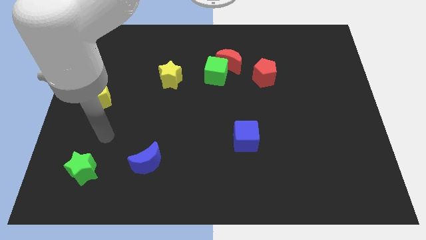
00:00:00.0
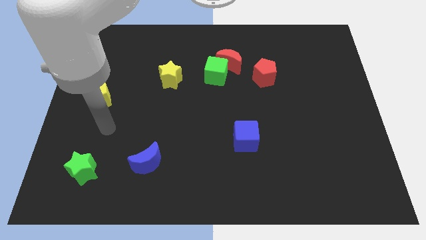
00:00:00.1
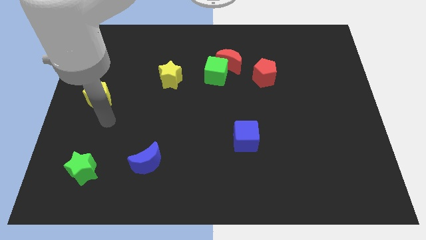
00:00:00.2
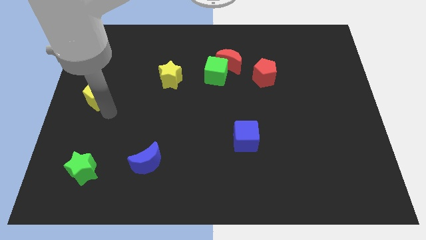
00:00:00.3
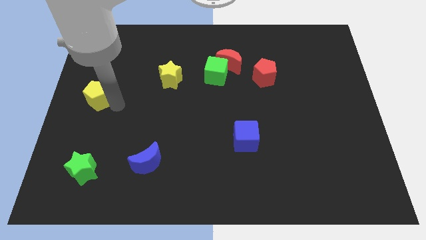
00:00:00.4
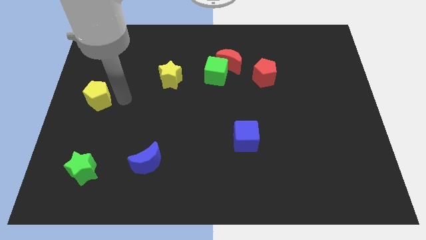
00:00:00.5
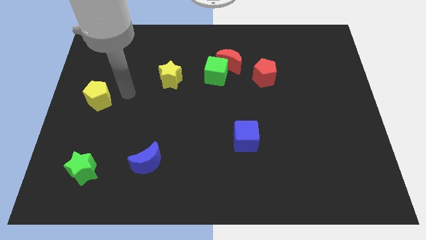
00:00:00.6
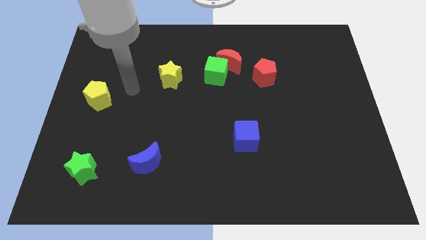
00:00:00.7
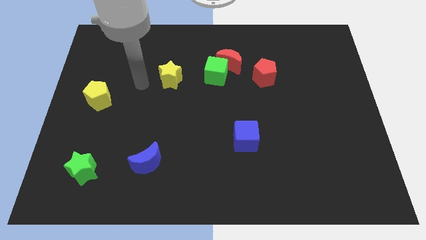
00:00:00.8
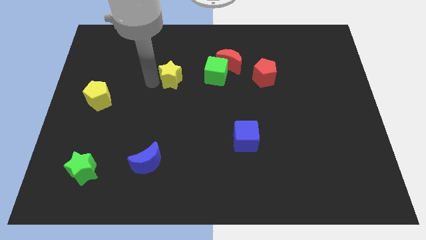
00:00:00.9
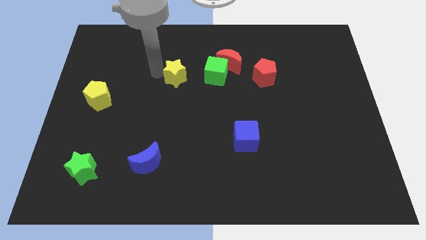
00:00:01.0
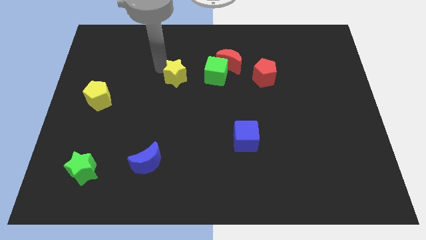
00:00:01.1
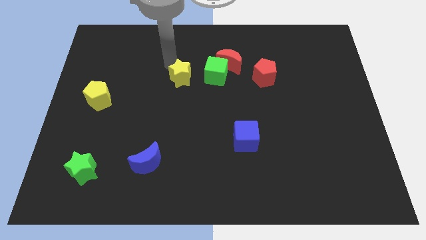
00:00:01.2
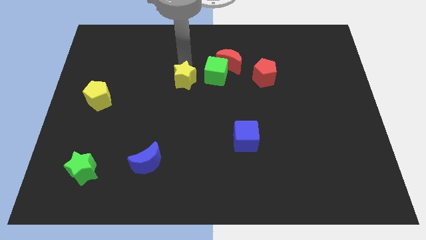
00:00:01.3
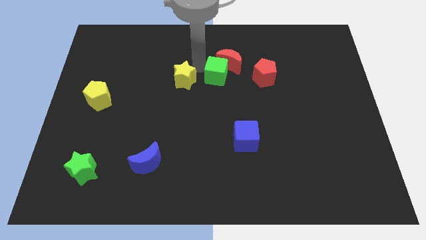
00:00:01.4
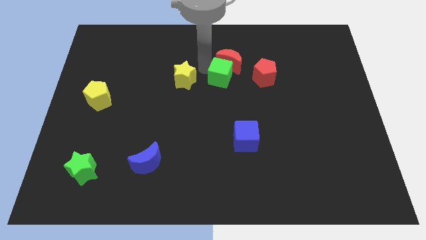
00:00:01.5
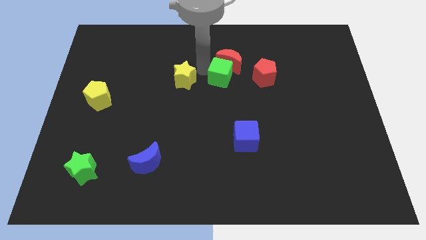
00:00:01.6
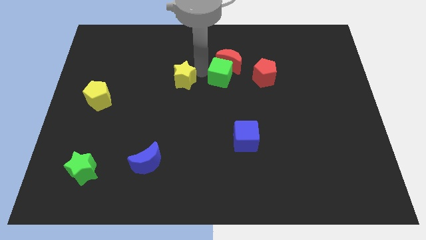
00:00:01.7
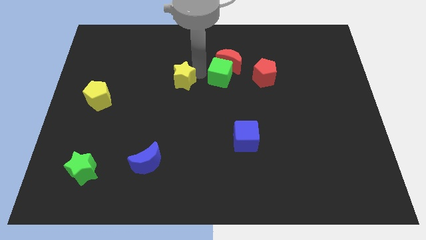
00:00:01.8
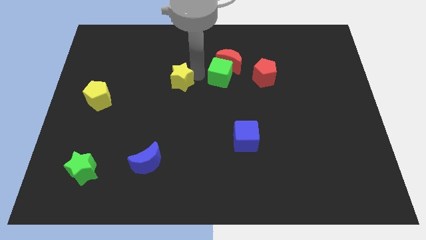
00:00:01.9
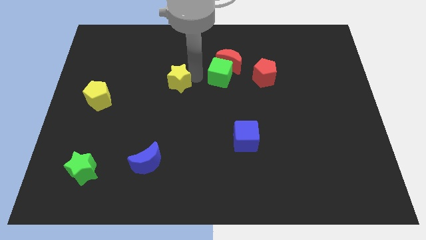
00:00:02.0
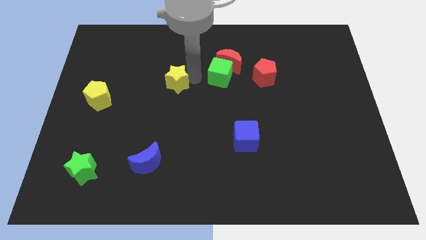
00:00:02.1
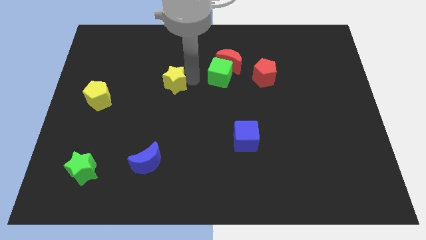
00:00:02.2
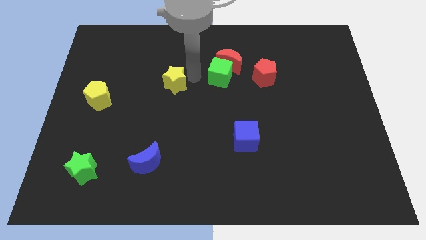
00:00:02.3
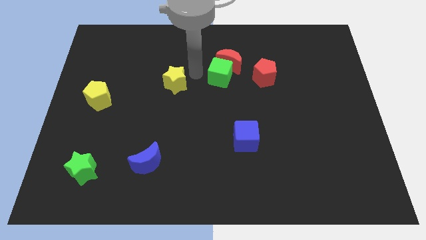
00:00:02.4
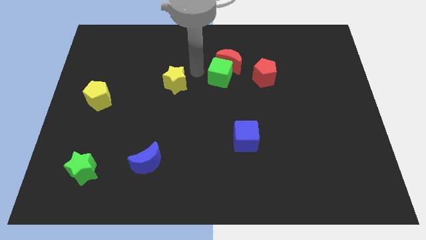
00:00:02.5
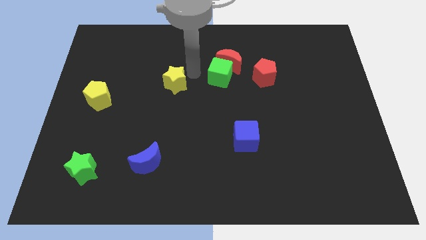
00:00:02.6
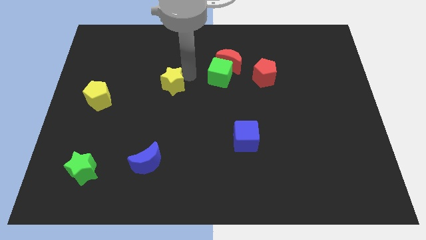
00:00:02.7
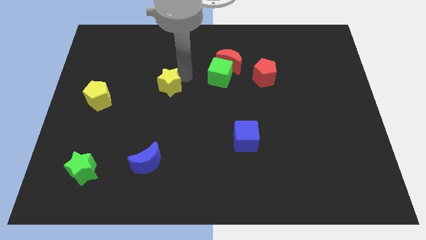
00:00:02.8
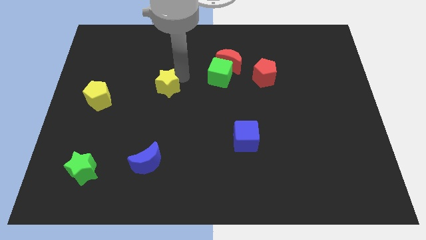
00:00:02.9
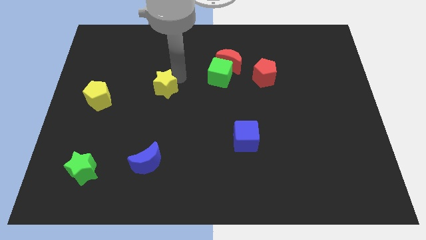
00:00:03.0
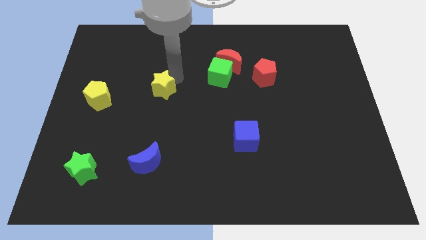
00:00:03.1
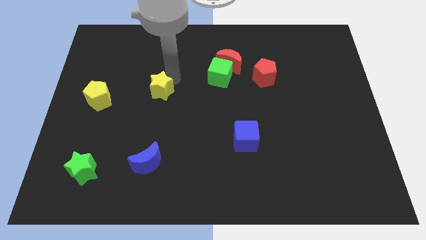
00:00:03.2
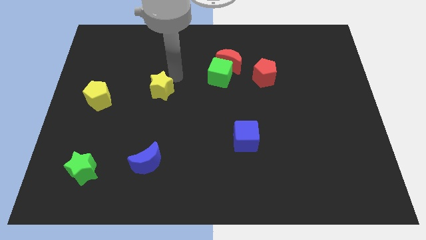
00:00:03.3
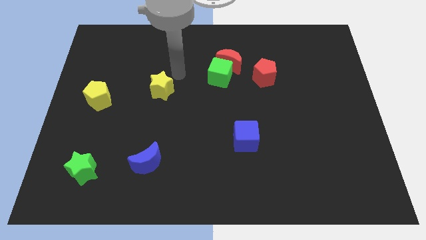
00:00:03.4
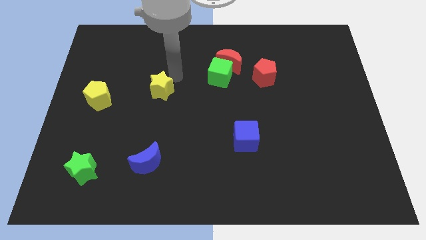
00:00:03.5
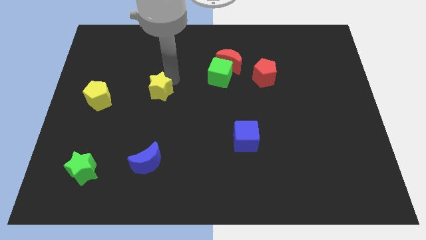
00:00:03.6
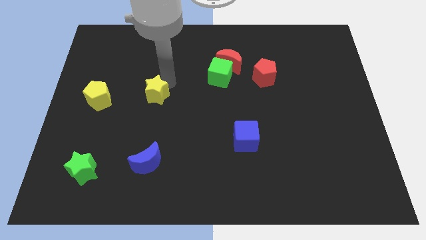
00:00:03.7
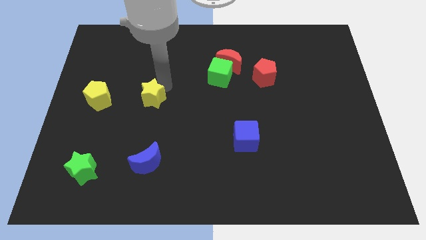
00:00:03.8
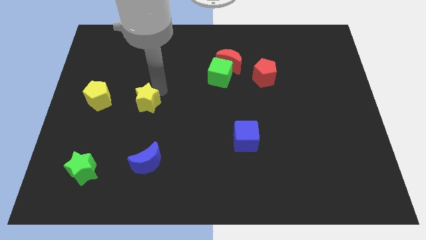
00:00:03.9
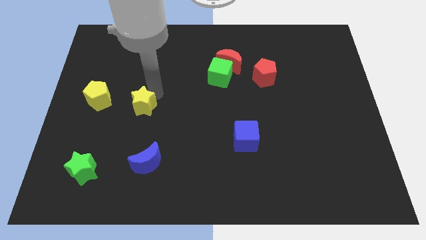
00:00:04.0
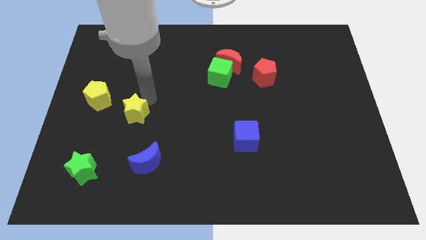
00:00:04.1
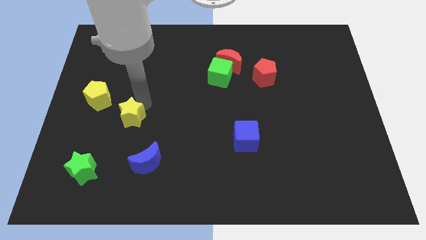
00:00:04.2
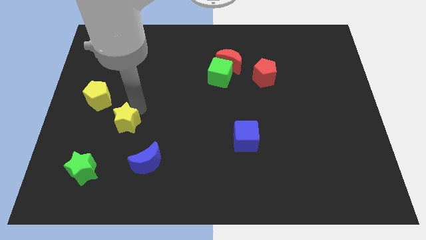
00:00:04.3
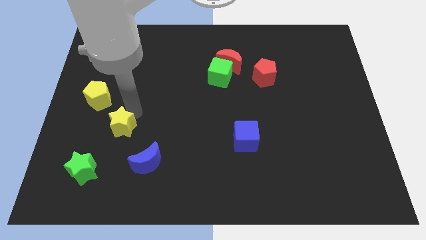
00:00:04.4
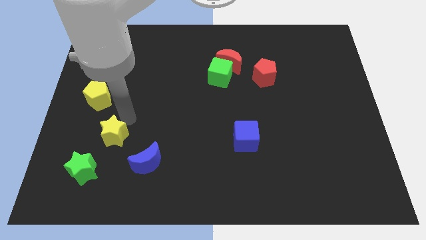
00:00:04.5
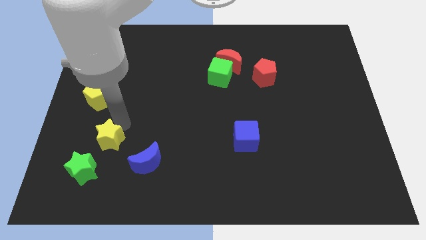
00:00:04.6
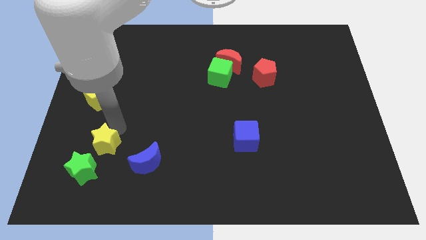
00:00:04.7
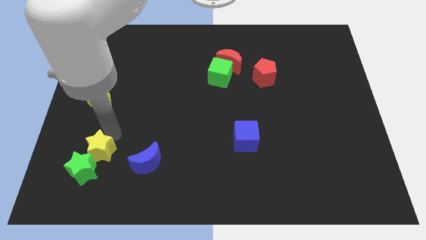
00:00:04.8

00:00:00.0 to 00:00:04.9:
slide the yellow star to the green star

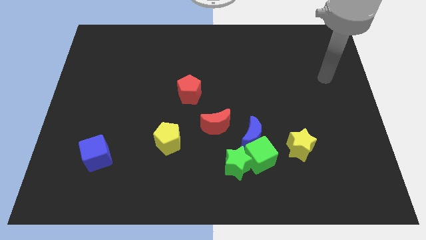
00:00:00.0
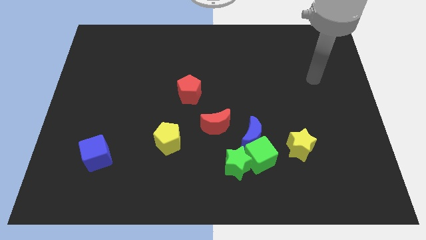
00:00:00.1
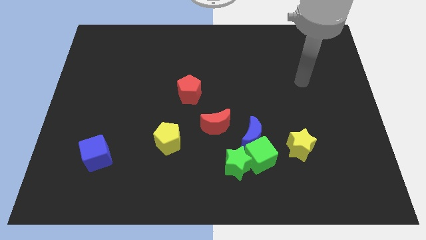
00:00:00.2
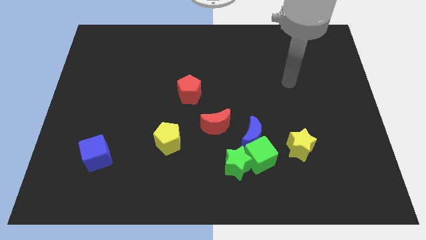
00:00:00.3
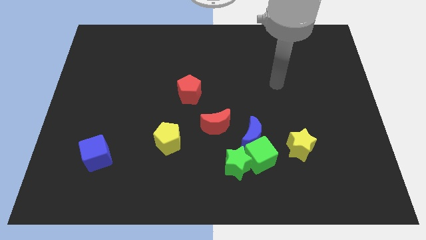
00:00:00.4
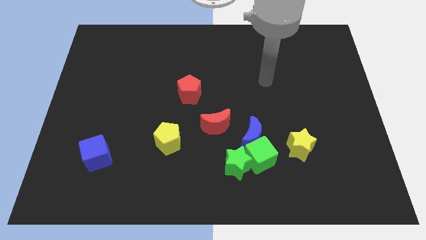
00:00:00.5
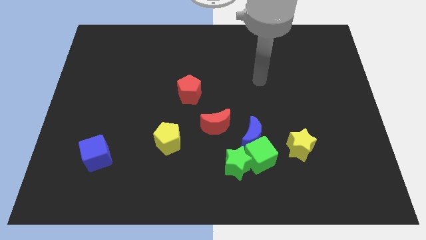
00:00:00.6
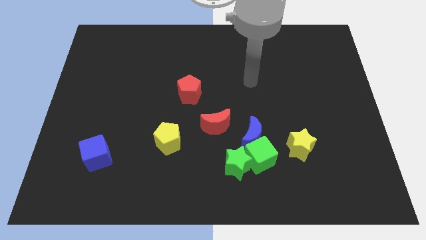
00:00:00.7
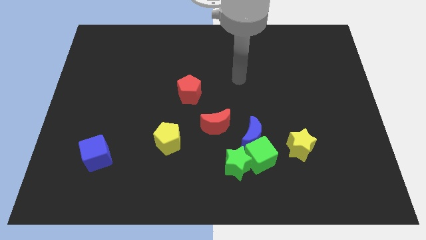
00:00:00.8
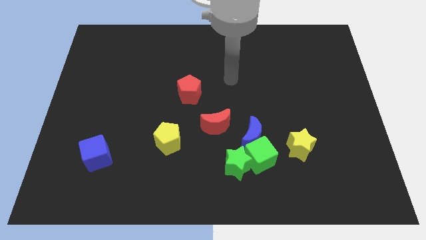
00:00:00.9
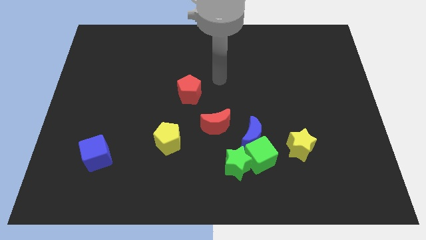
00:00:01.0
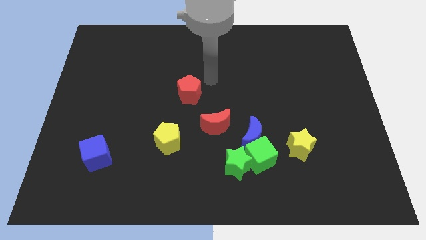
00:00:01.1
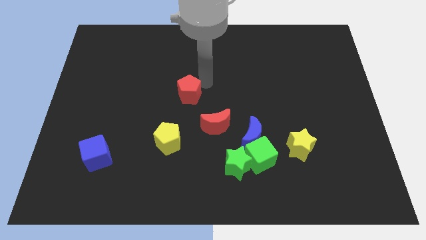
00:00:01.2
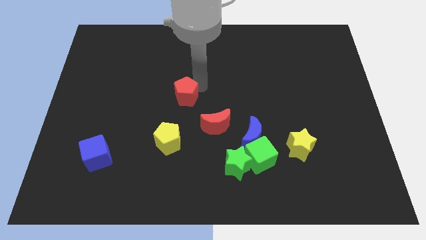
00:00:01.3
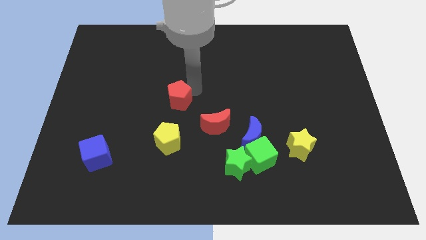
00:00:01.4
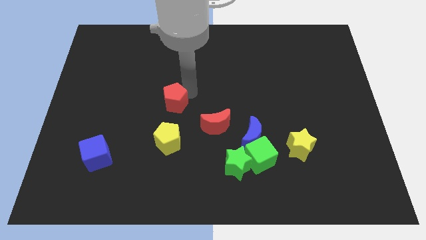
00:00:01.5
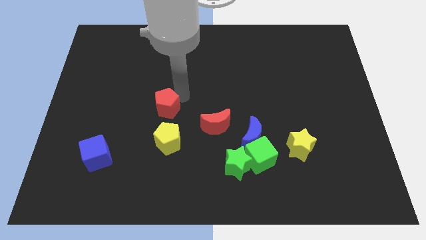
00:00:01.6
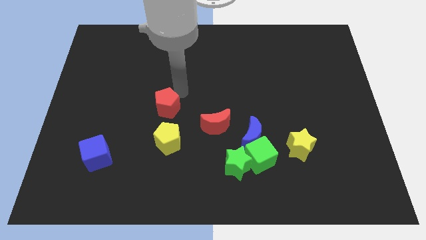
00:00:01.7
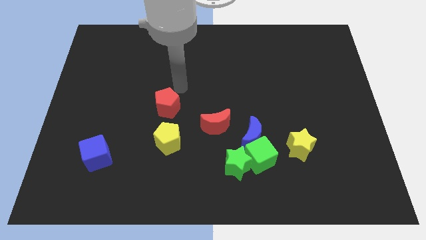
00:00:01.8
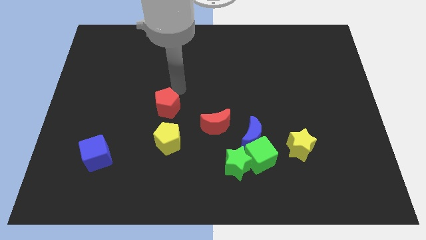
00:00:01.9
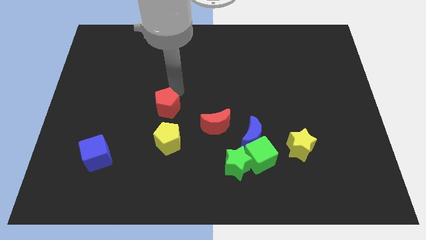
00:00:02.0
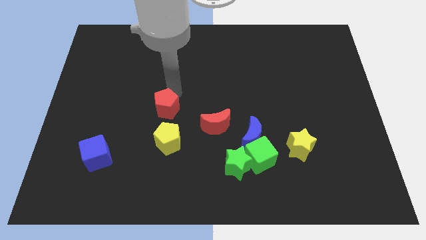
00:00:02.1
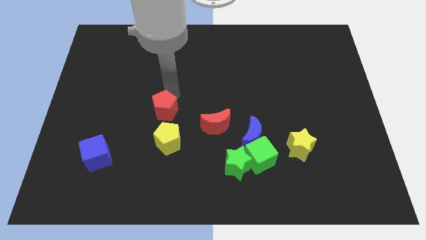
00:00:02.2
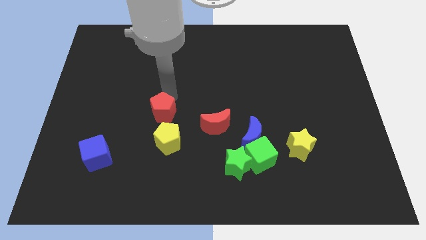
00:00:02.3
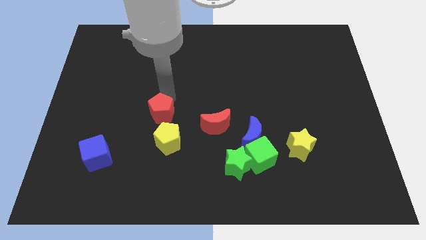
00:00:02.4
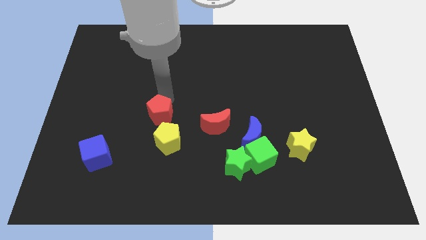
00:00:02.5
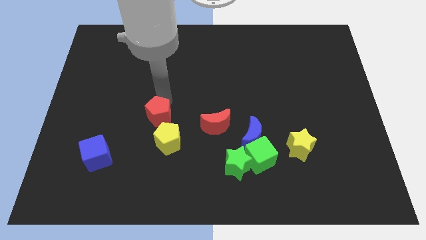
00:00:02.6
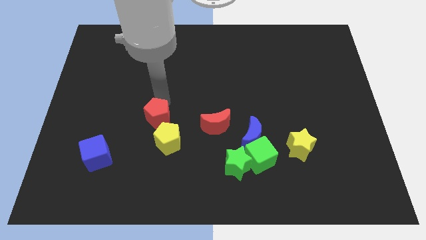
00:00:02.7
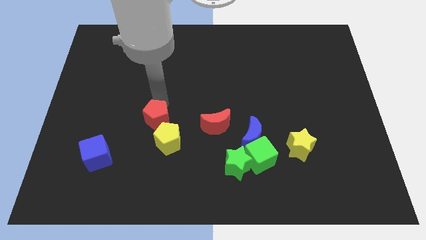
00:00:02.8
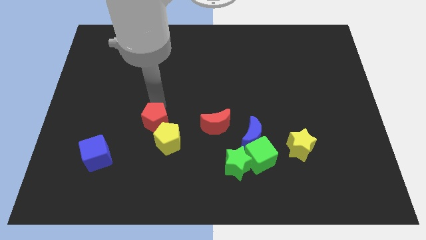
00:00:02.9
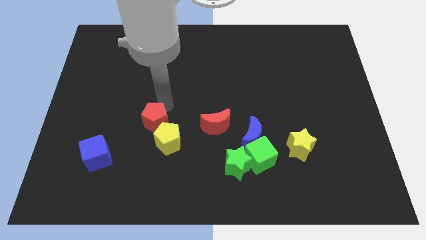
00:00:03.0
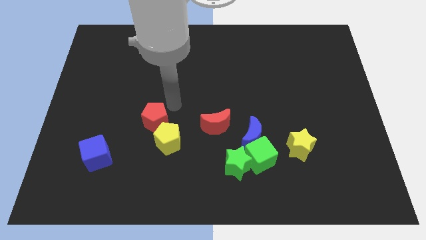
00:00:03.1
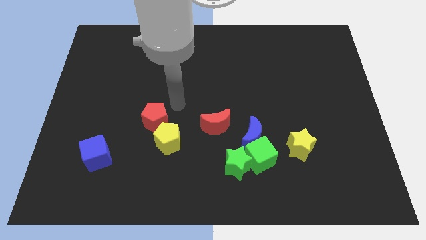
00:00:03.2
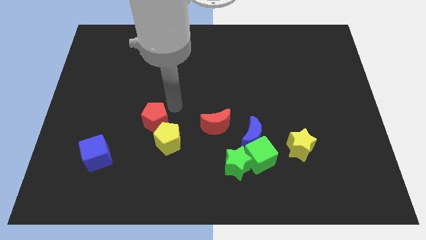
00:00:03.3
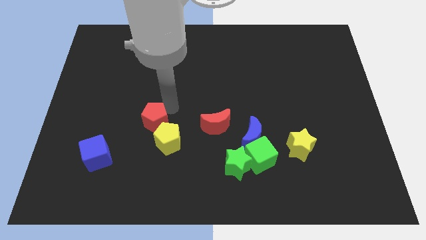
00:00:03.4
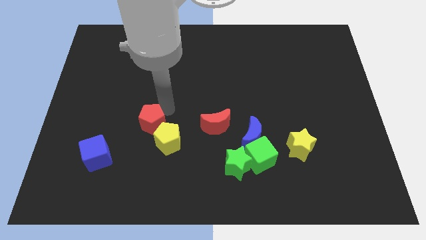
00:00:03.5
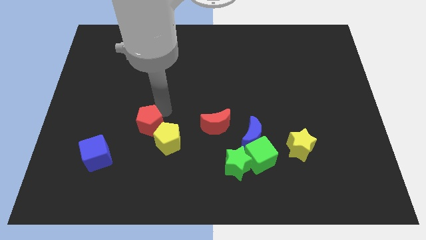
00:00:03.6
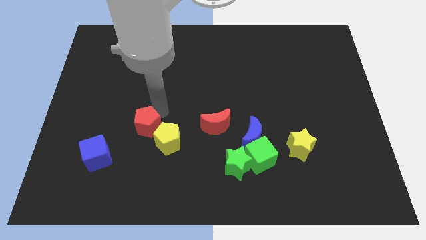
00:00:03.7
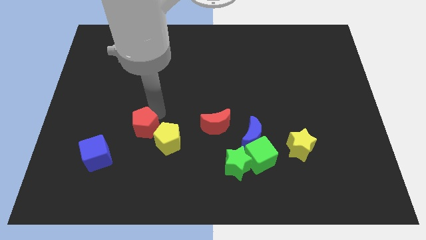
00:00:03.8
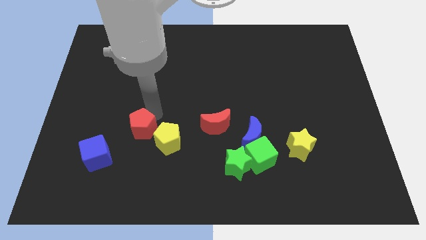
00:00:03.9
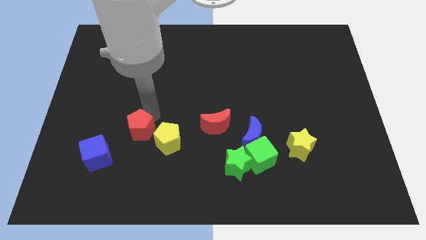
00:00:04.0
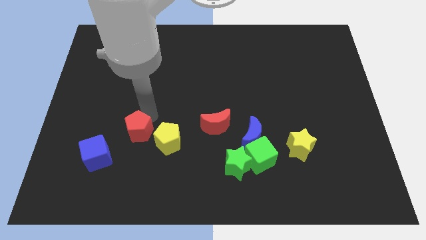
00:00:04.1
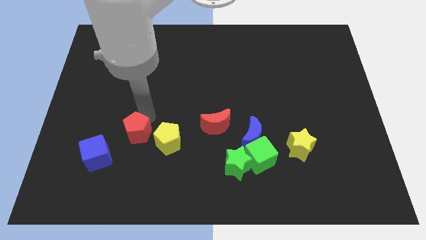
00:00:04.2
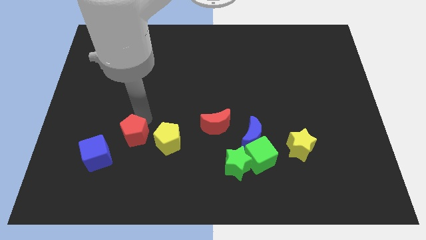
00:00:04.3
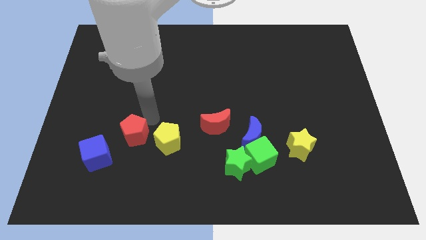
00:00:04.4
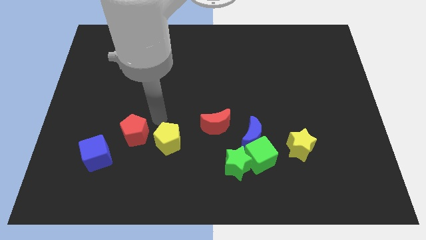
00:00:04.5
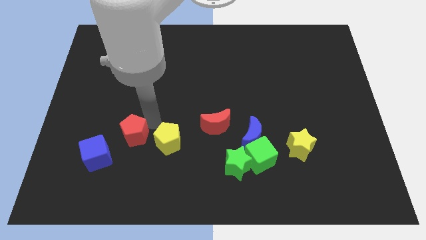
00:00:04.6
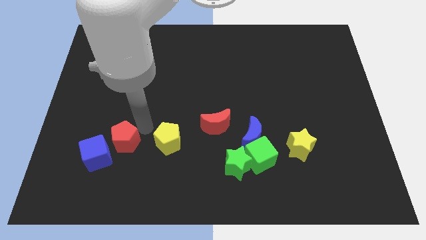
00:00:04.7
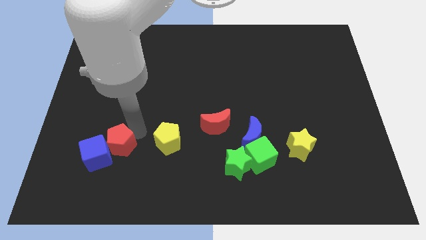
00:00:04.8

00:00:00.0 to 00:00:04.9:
slide the red pentagon towards the blue cube
